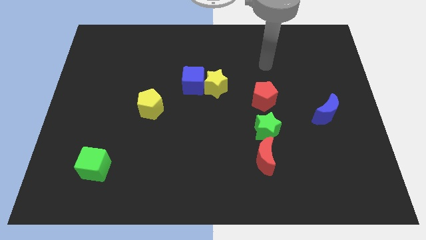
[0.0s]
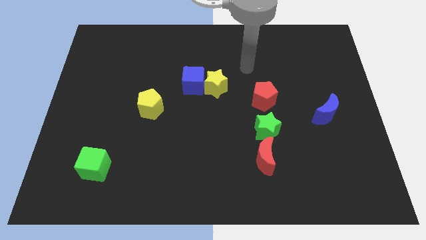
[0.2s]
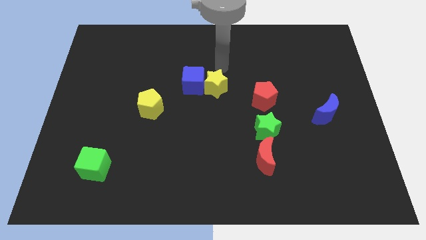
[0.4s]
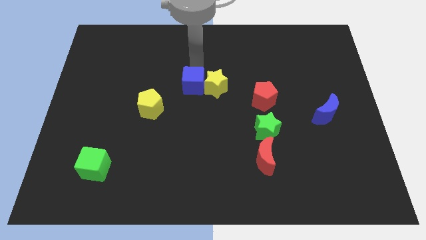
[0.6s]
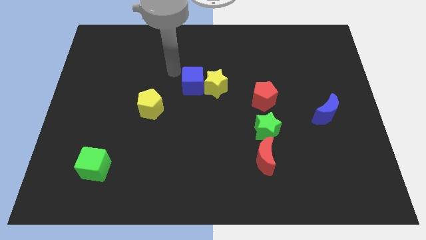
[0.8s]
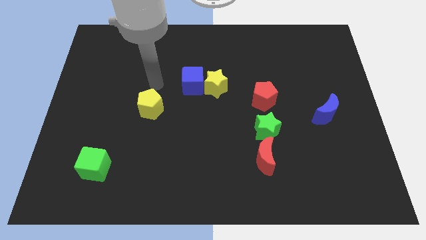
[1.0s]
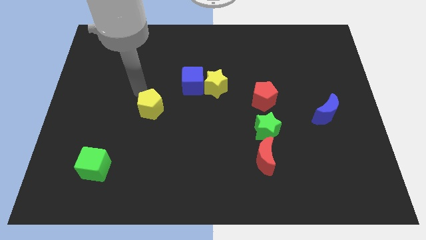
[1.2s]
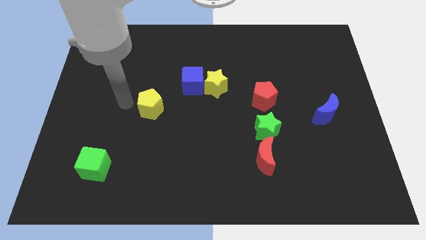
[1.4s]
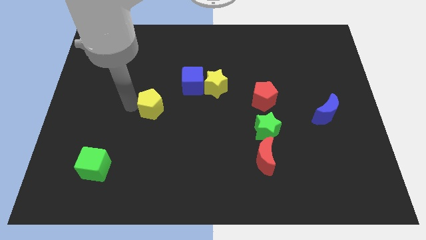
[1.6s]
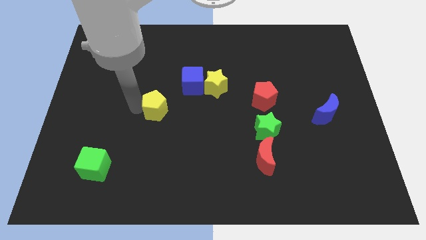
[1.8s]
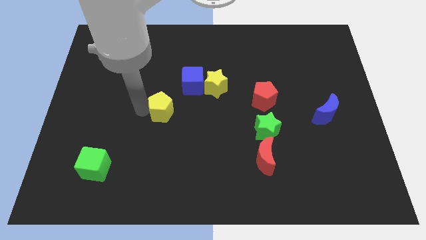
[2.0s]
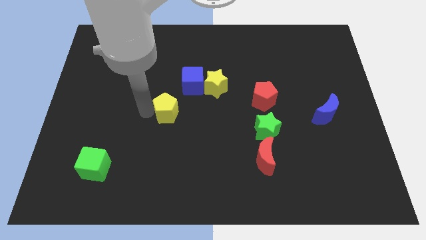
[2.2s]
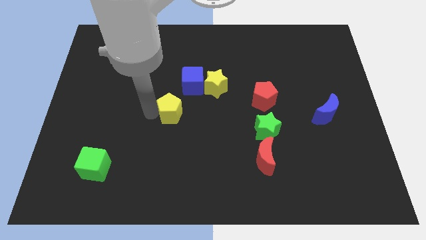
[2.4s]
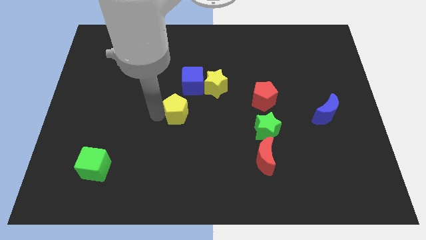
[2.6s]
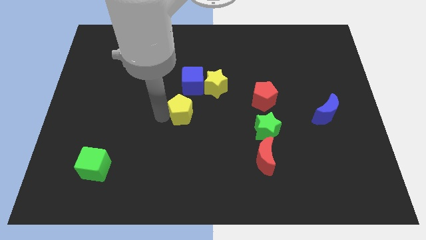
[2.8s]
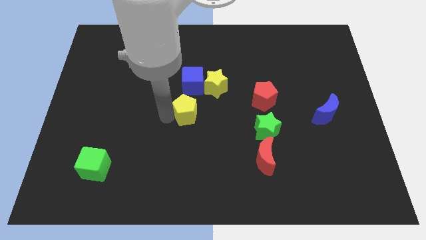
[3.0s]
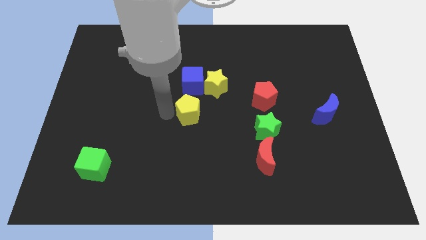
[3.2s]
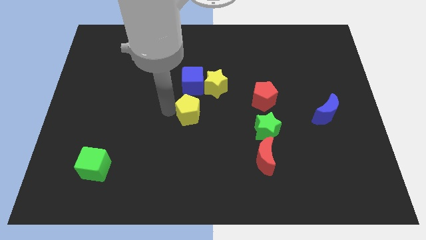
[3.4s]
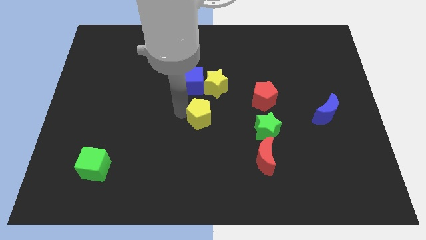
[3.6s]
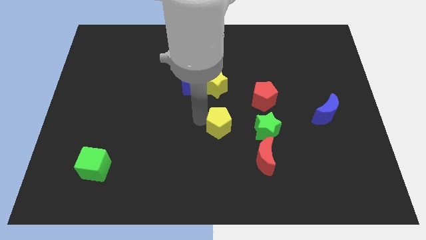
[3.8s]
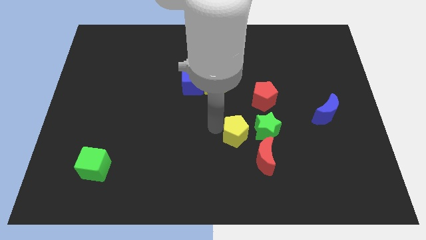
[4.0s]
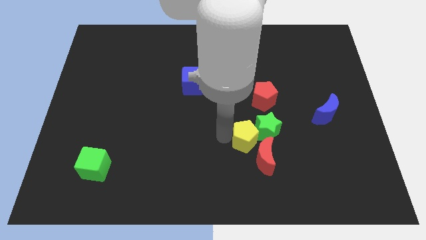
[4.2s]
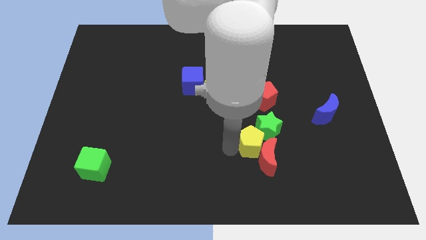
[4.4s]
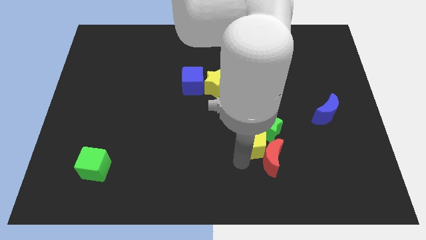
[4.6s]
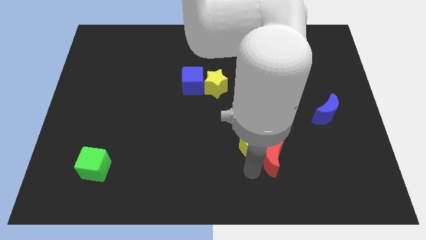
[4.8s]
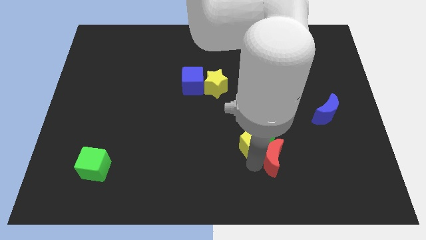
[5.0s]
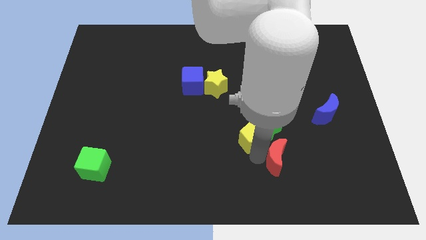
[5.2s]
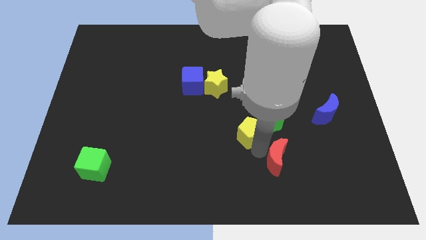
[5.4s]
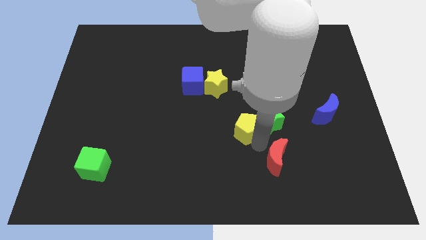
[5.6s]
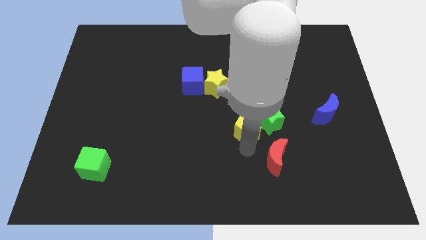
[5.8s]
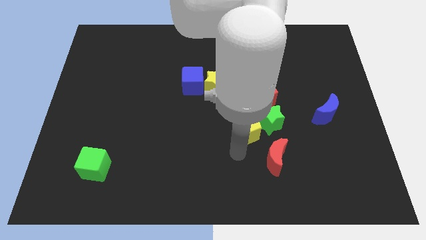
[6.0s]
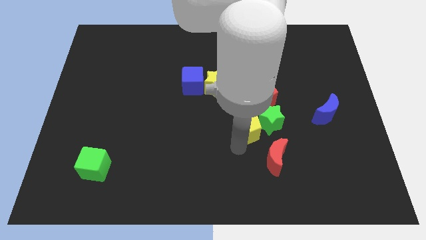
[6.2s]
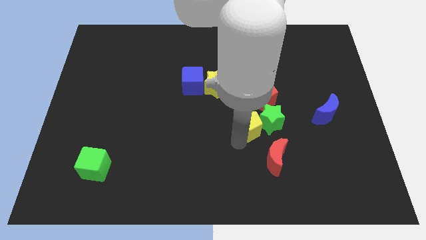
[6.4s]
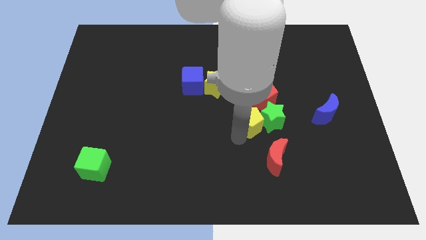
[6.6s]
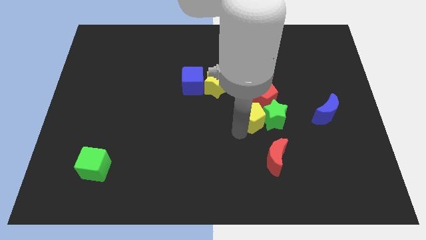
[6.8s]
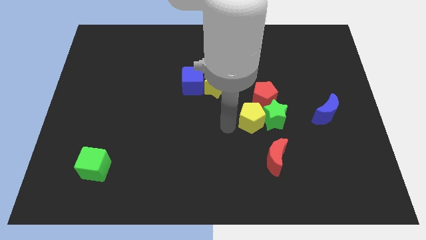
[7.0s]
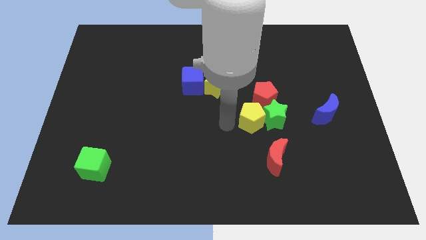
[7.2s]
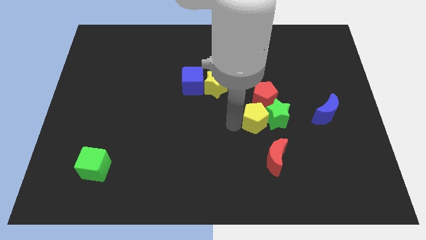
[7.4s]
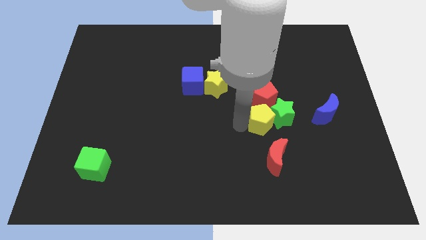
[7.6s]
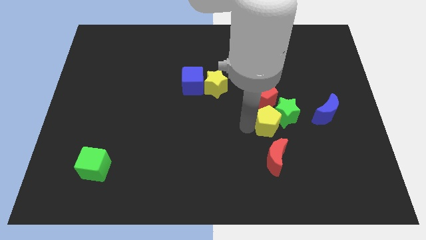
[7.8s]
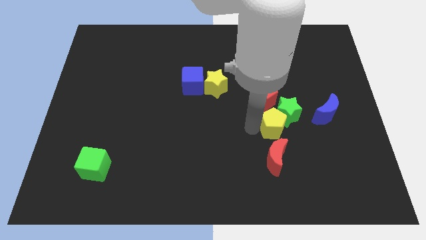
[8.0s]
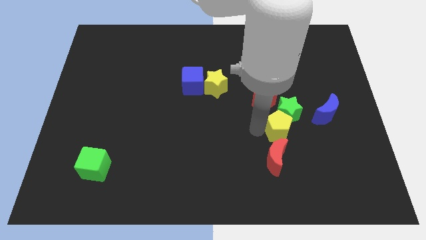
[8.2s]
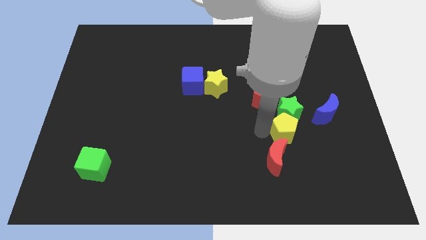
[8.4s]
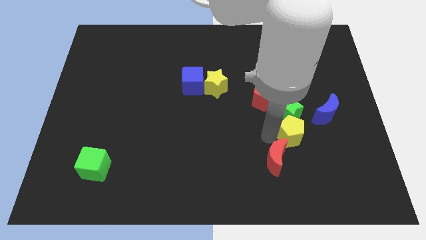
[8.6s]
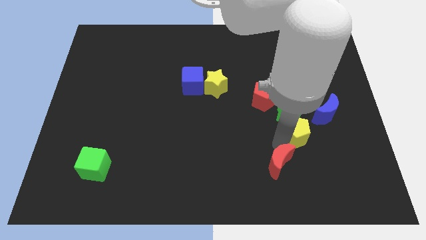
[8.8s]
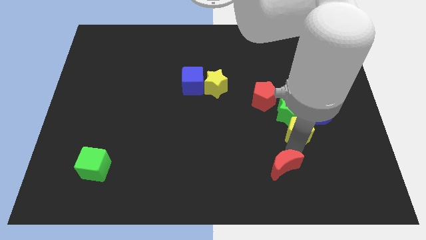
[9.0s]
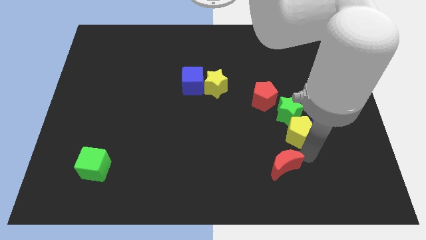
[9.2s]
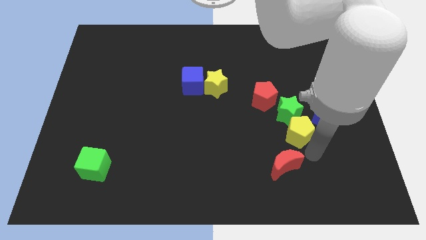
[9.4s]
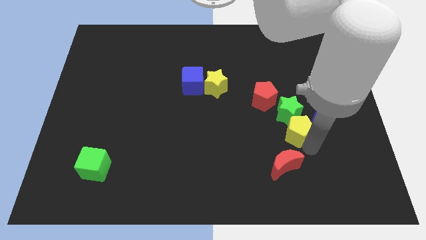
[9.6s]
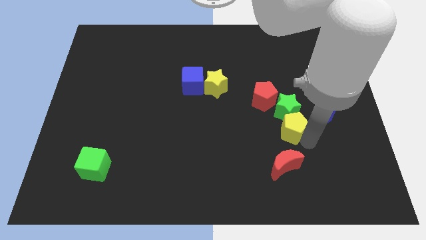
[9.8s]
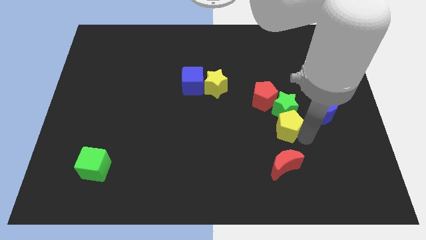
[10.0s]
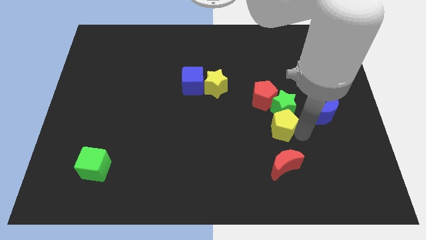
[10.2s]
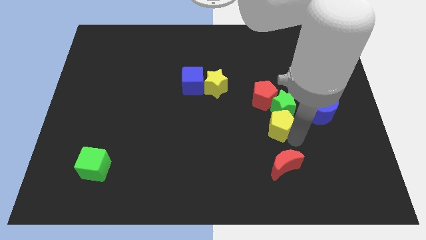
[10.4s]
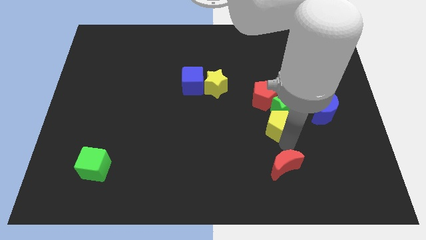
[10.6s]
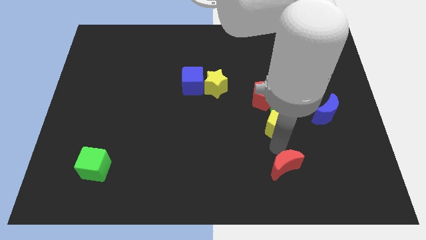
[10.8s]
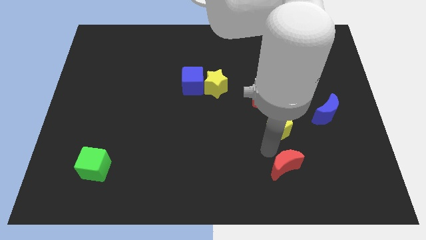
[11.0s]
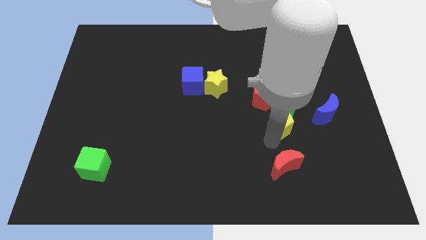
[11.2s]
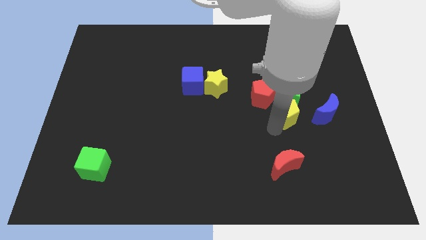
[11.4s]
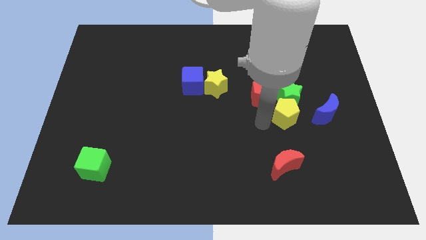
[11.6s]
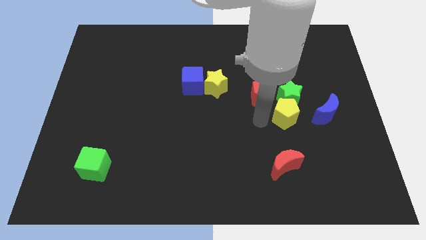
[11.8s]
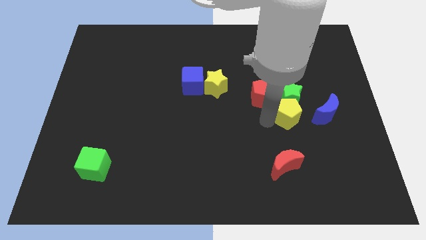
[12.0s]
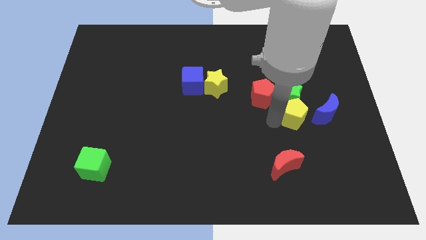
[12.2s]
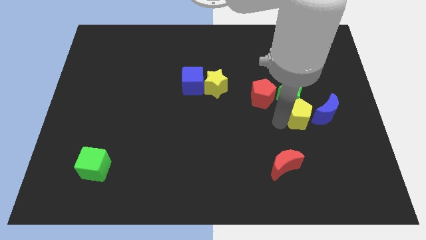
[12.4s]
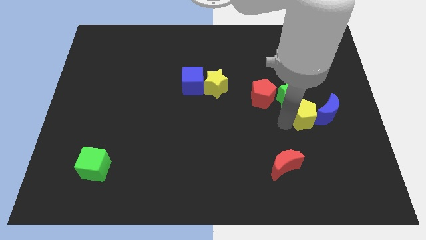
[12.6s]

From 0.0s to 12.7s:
slide the yellow pentagon to the blue moon

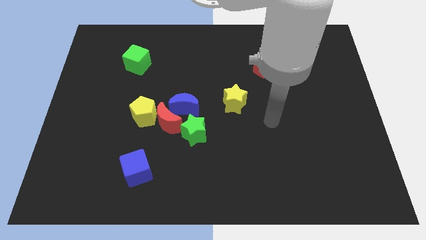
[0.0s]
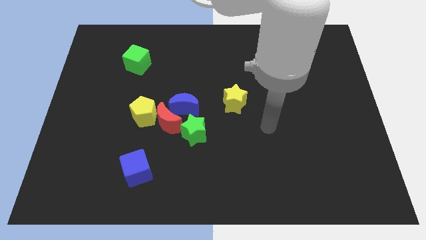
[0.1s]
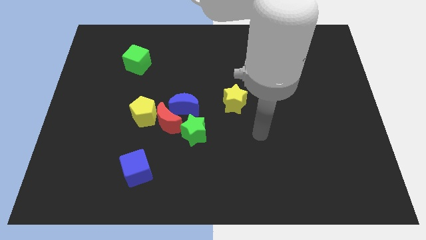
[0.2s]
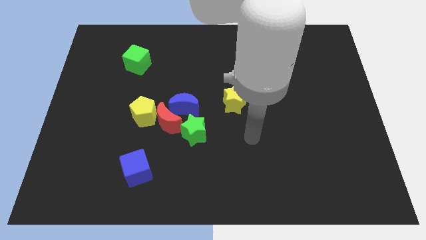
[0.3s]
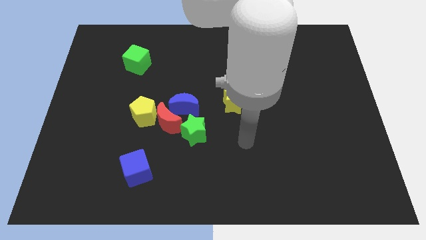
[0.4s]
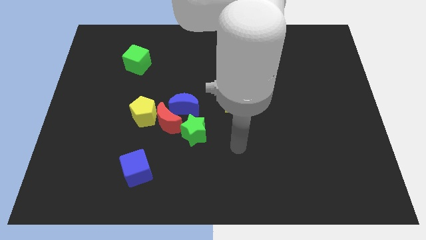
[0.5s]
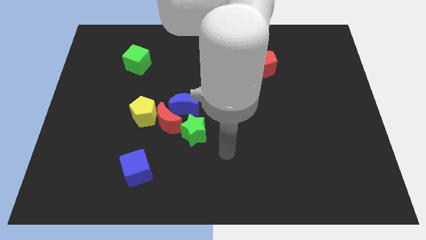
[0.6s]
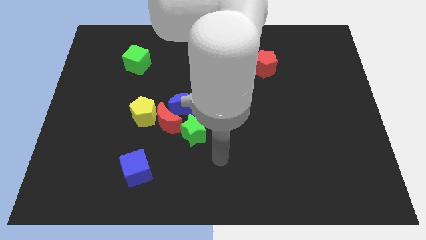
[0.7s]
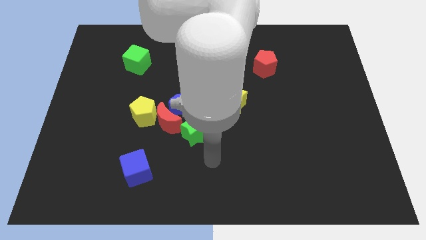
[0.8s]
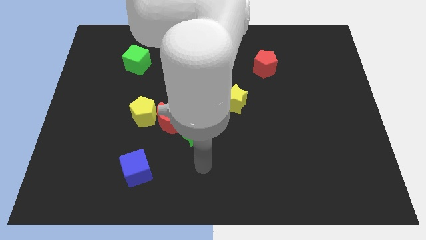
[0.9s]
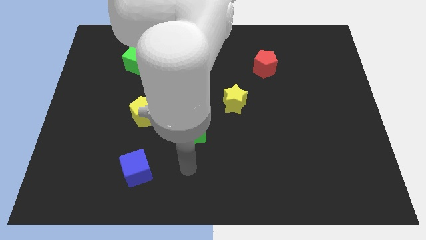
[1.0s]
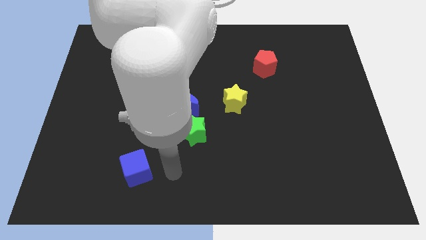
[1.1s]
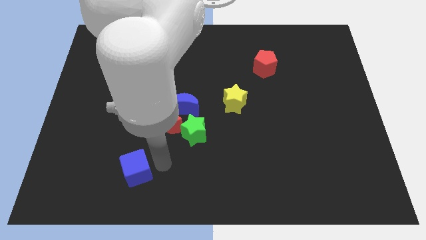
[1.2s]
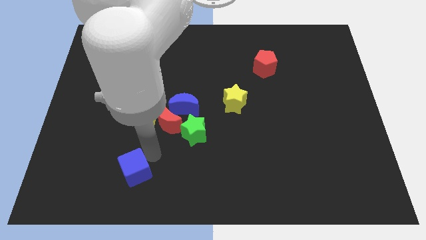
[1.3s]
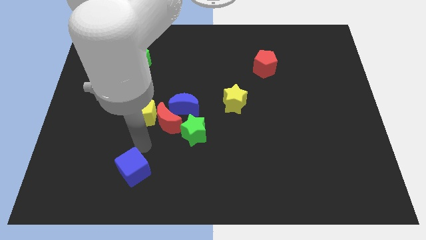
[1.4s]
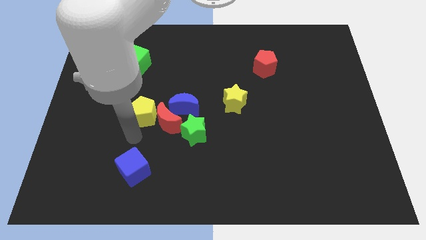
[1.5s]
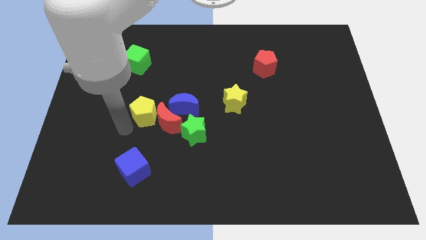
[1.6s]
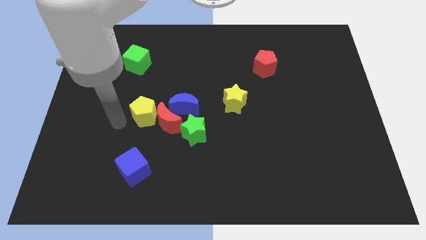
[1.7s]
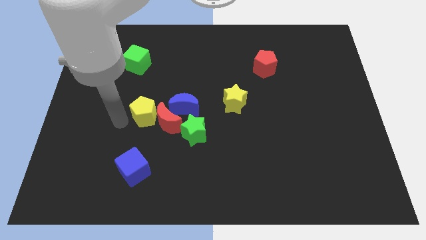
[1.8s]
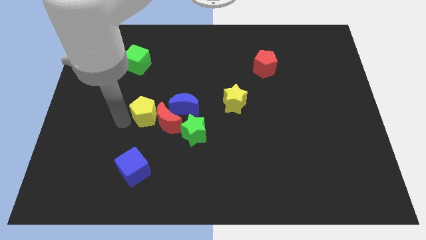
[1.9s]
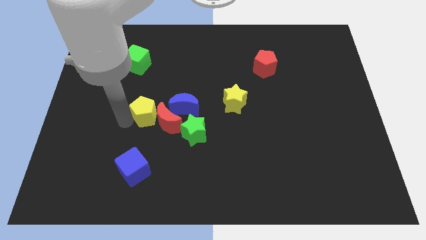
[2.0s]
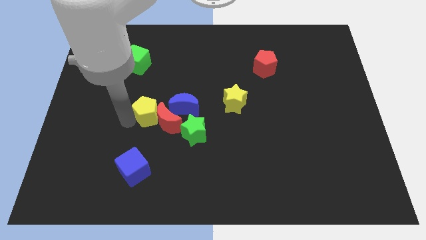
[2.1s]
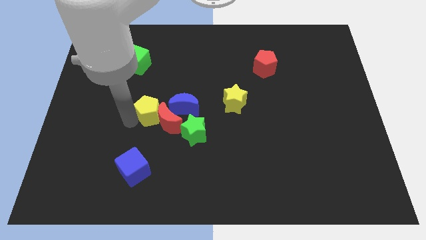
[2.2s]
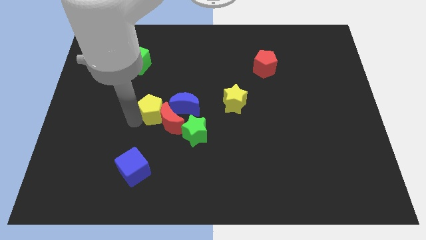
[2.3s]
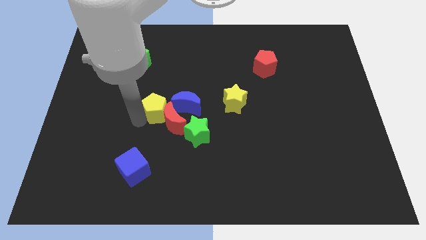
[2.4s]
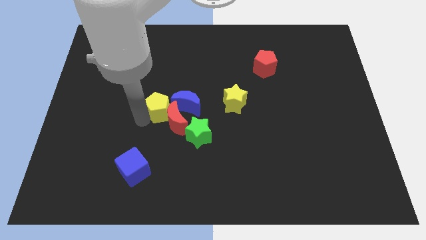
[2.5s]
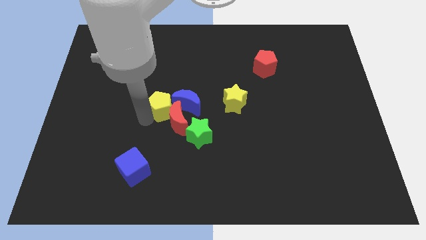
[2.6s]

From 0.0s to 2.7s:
push the yellow pentagon close to the blue moon
